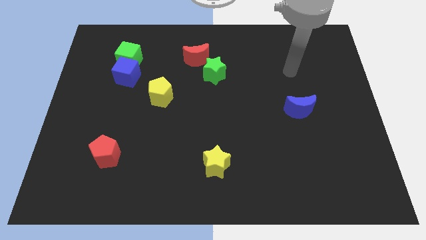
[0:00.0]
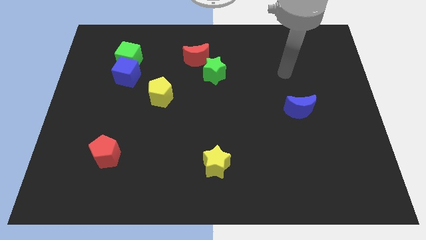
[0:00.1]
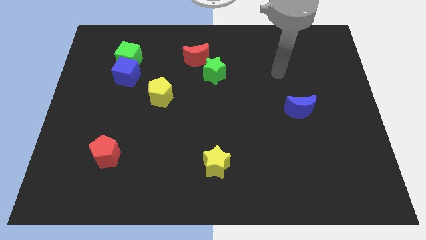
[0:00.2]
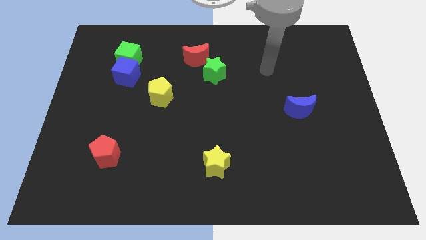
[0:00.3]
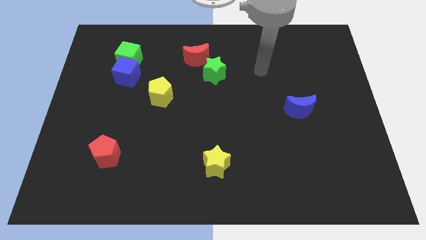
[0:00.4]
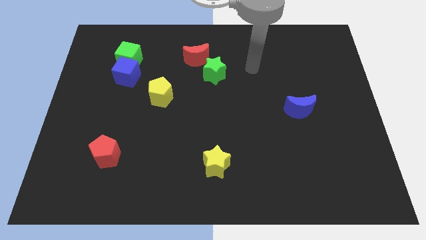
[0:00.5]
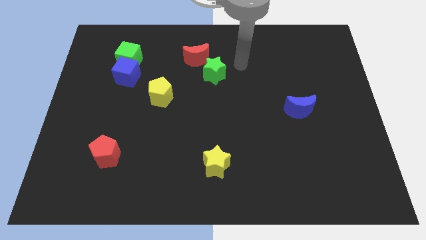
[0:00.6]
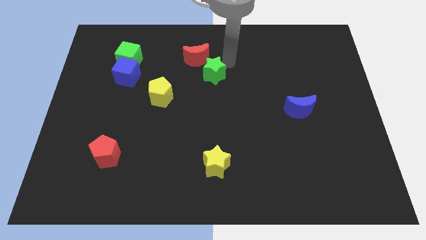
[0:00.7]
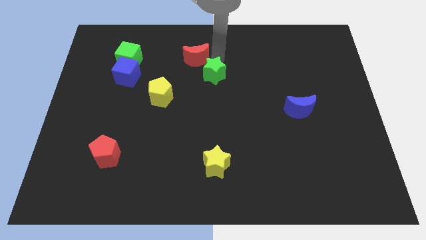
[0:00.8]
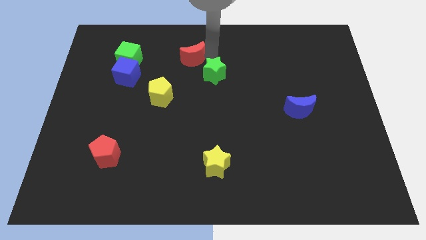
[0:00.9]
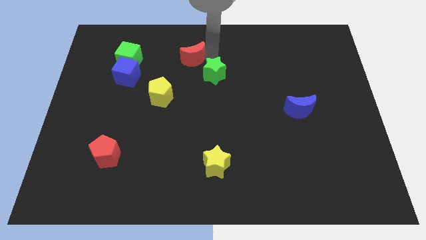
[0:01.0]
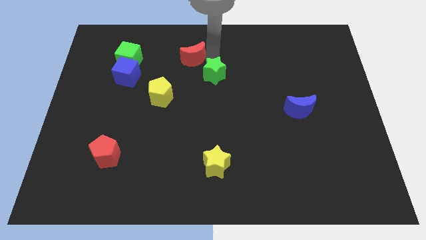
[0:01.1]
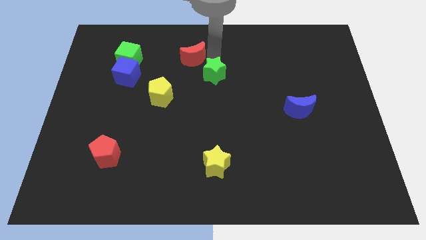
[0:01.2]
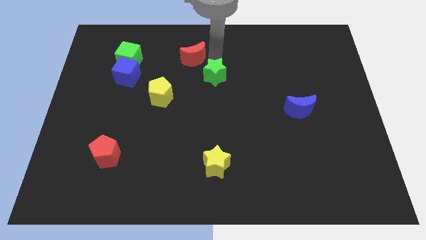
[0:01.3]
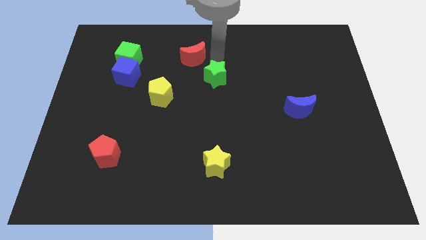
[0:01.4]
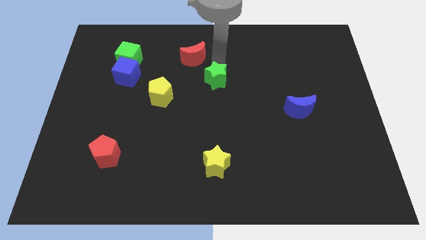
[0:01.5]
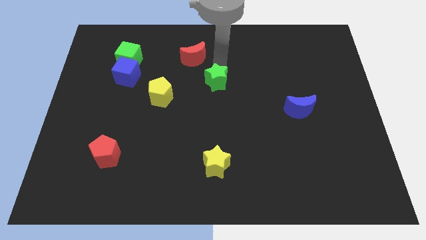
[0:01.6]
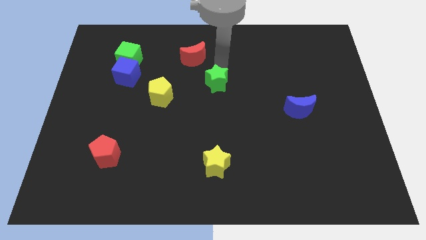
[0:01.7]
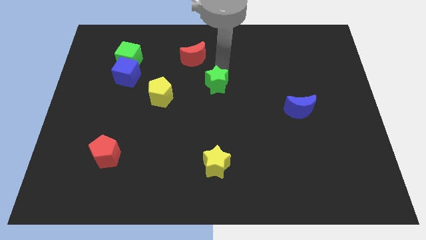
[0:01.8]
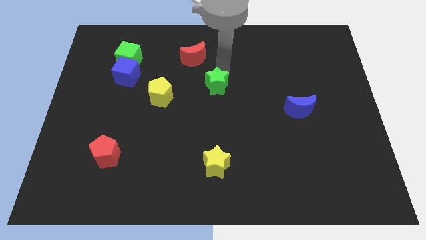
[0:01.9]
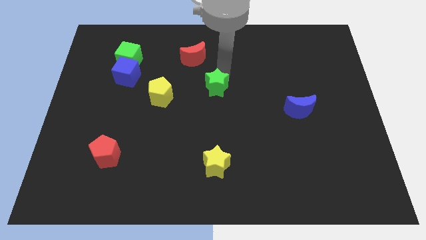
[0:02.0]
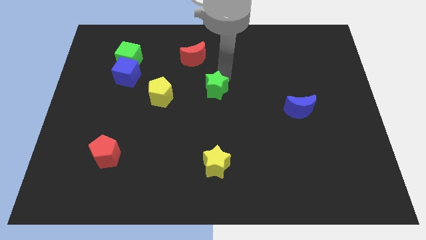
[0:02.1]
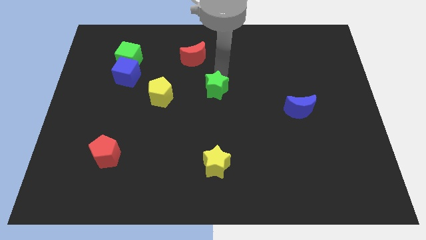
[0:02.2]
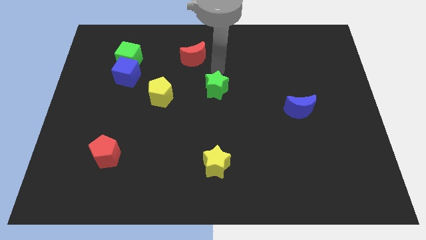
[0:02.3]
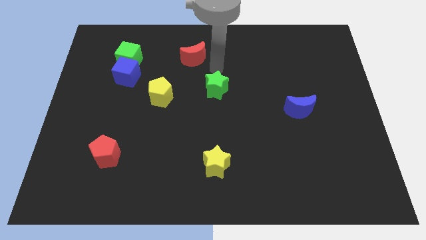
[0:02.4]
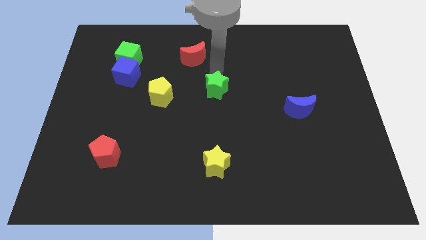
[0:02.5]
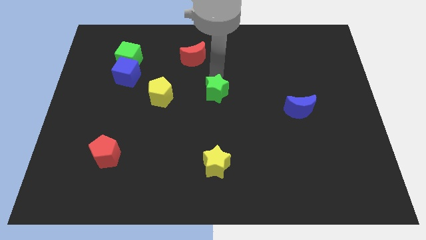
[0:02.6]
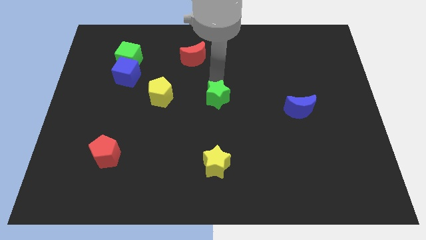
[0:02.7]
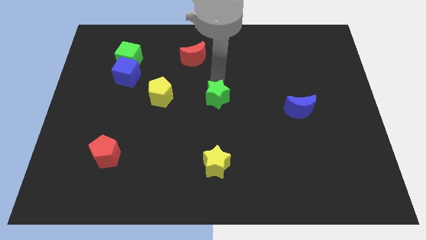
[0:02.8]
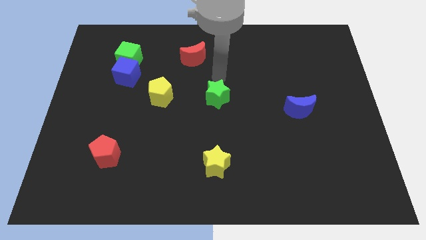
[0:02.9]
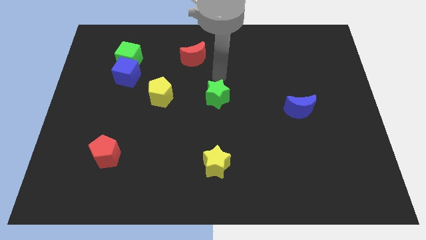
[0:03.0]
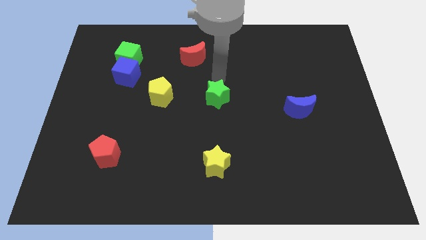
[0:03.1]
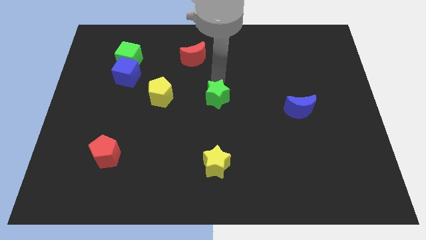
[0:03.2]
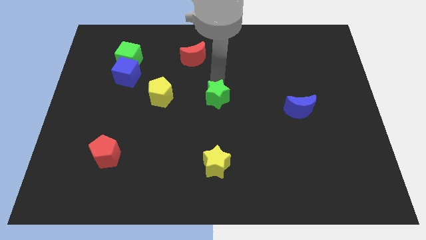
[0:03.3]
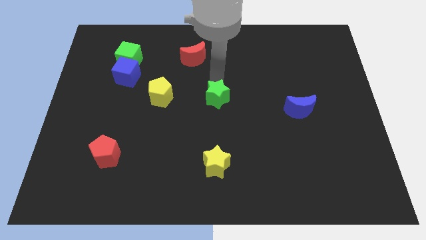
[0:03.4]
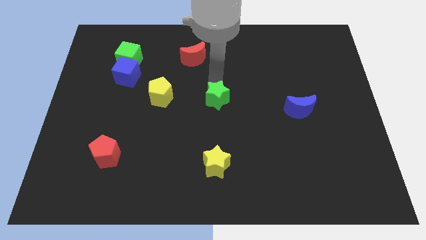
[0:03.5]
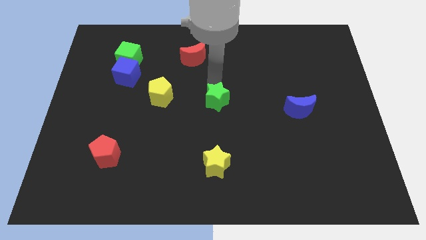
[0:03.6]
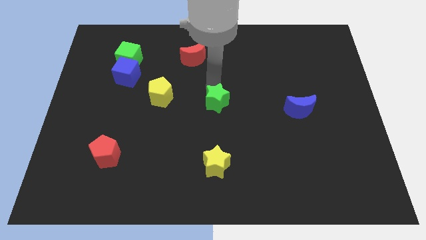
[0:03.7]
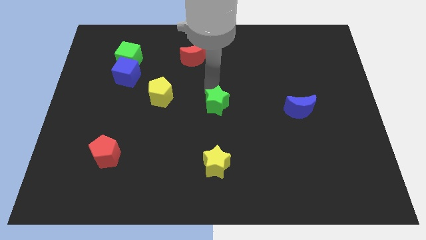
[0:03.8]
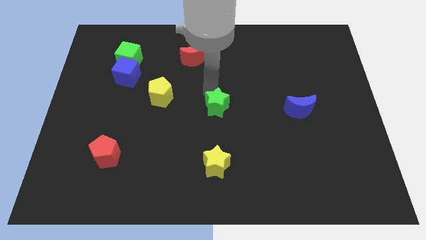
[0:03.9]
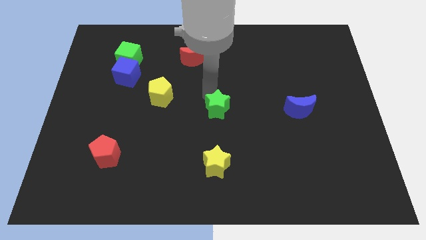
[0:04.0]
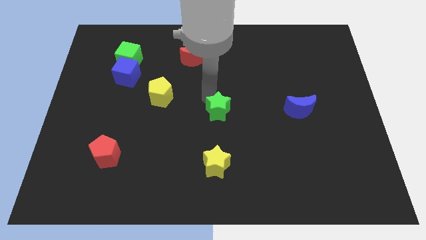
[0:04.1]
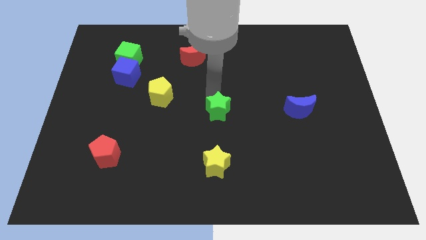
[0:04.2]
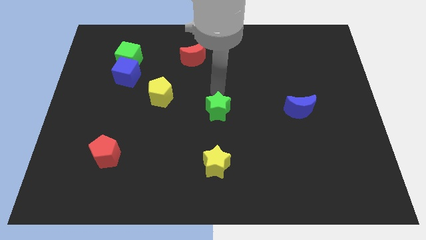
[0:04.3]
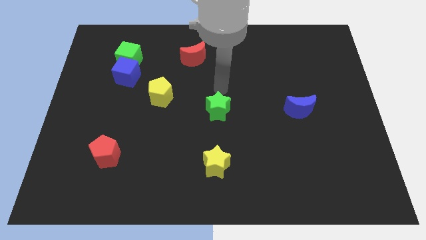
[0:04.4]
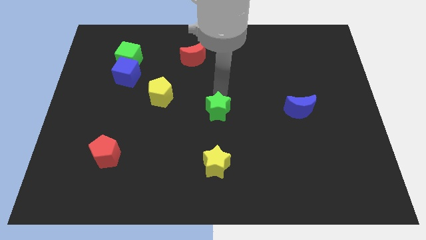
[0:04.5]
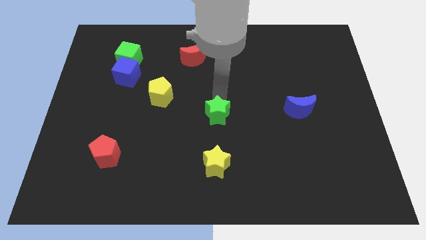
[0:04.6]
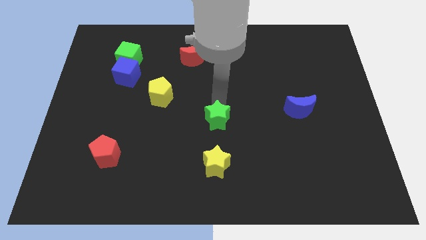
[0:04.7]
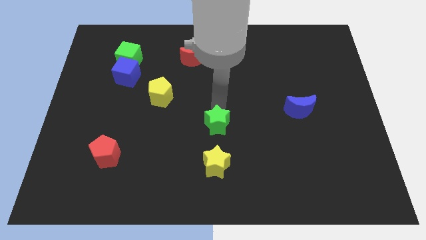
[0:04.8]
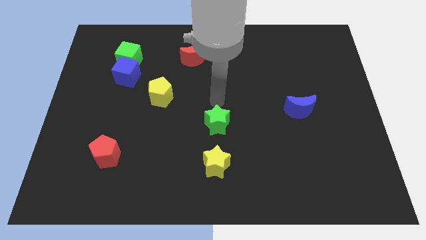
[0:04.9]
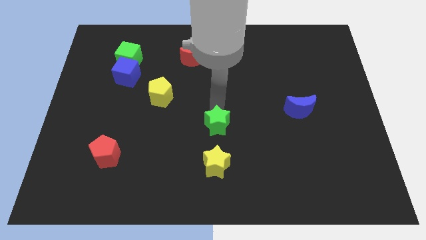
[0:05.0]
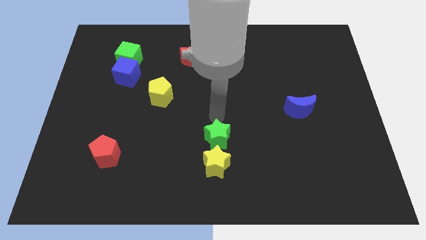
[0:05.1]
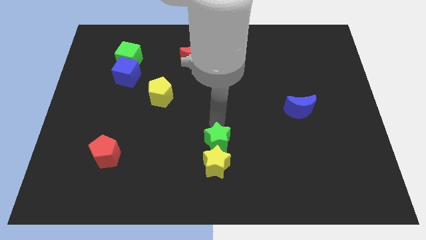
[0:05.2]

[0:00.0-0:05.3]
slide the green star close to the yellow star
